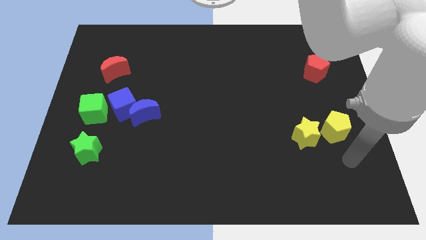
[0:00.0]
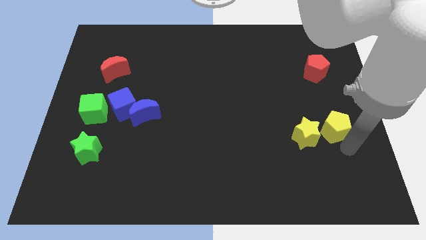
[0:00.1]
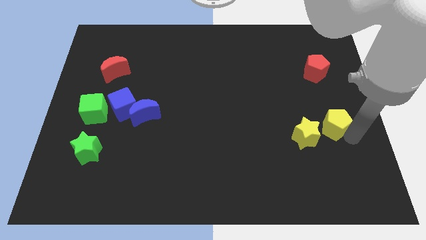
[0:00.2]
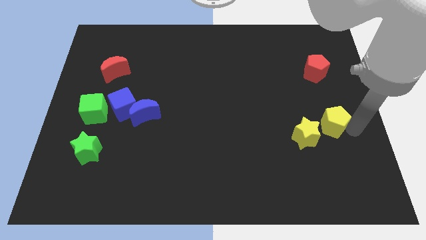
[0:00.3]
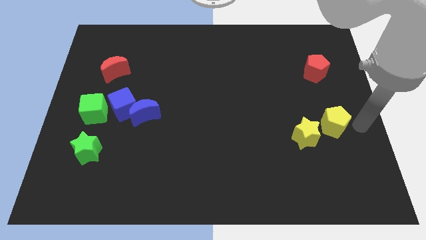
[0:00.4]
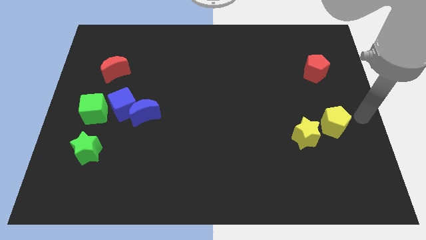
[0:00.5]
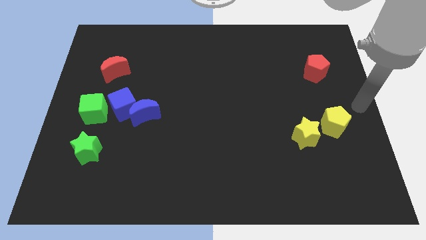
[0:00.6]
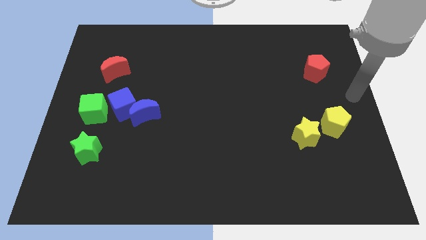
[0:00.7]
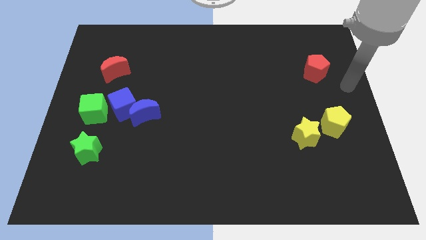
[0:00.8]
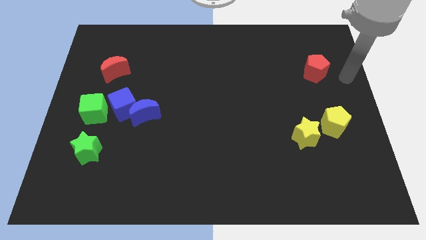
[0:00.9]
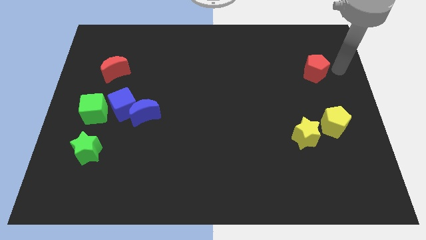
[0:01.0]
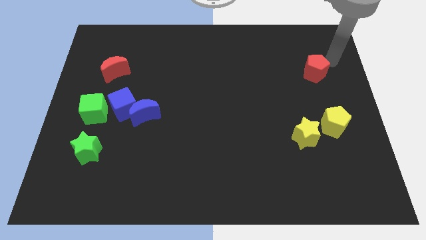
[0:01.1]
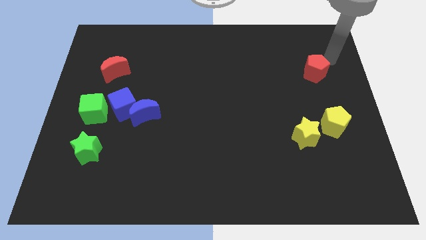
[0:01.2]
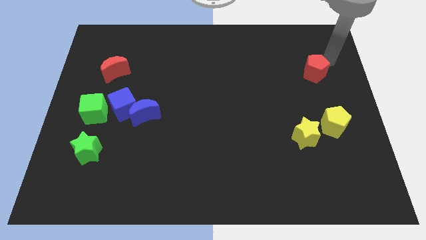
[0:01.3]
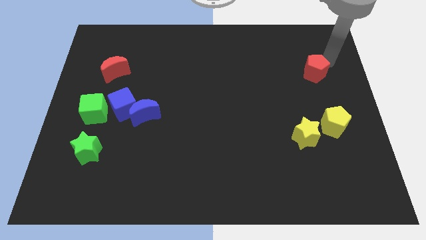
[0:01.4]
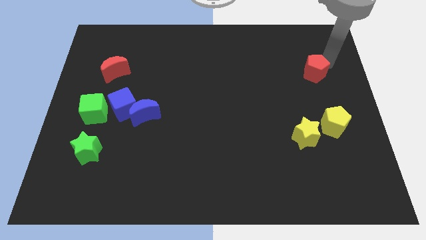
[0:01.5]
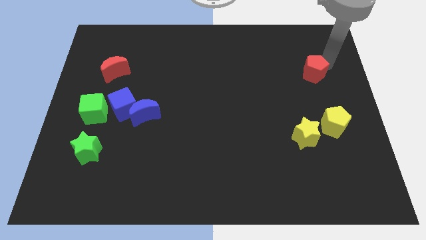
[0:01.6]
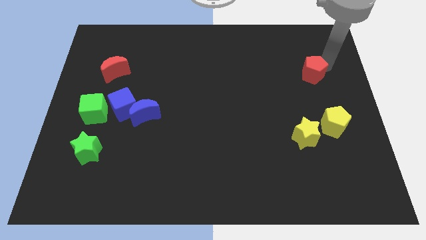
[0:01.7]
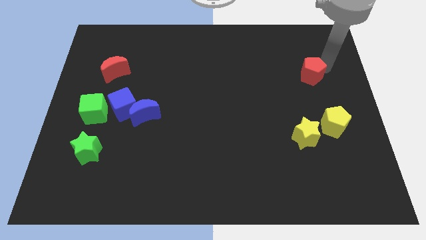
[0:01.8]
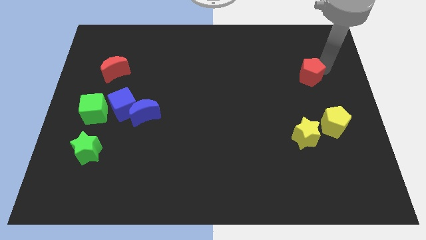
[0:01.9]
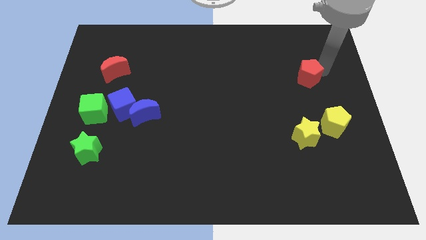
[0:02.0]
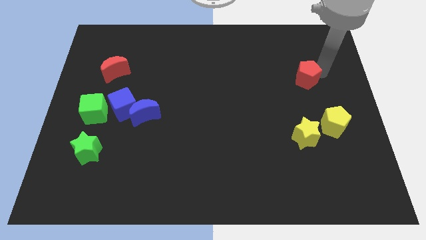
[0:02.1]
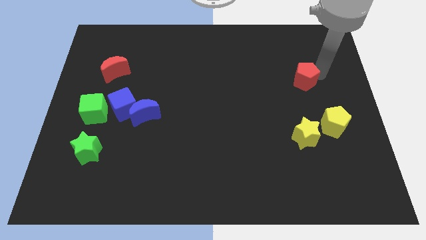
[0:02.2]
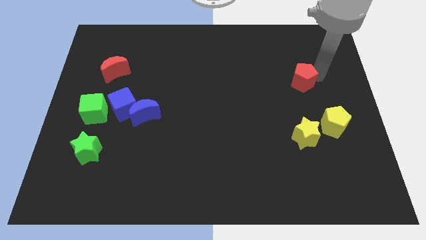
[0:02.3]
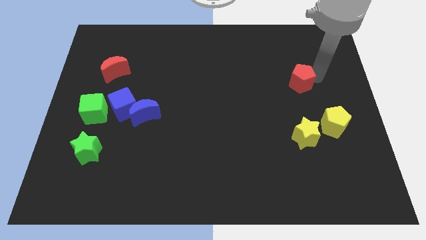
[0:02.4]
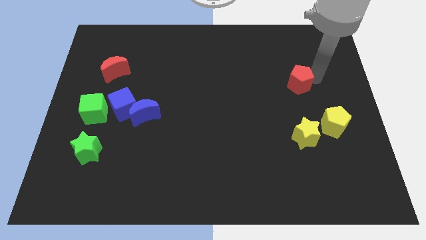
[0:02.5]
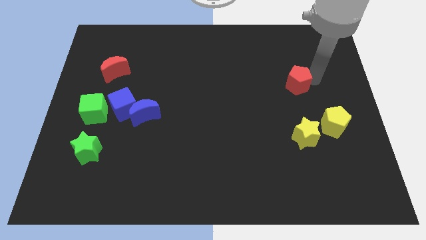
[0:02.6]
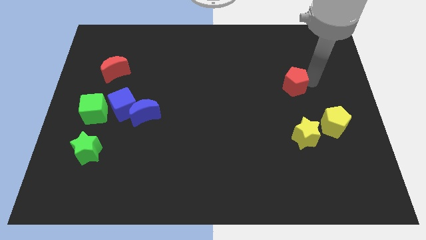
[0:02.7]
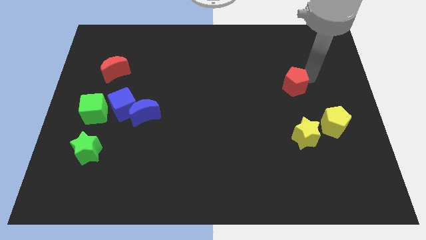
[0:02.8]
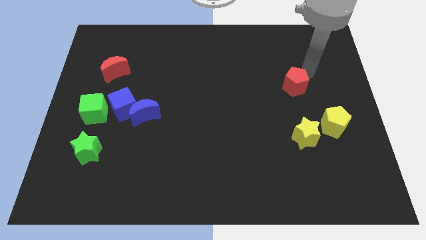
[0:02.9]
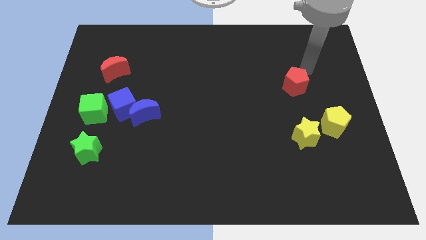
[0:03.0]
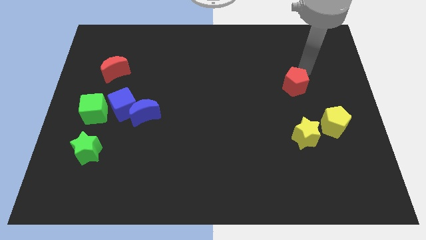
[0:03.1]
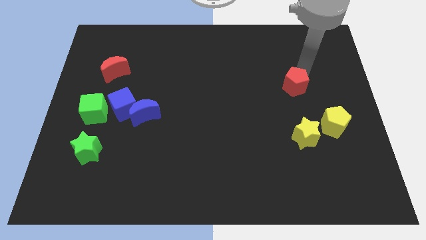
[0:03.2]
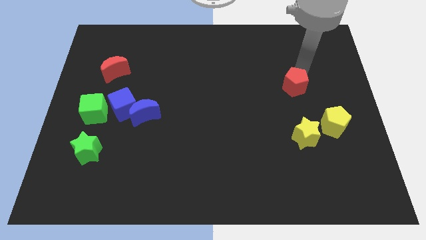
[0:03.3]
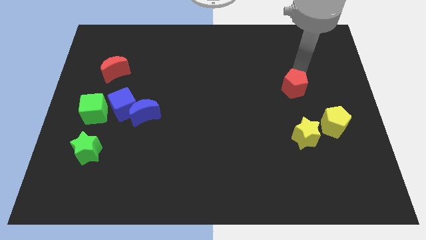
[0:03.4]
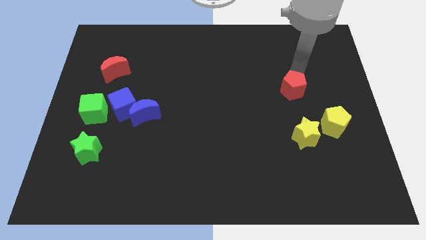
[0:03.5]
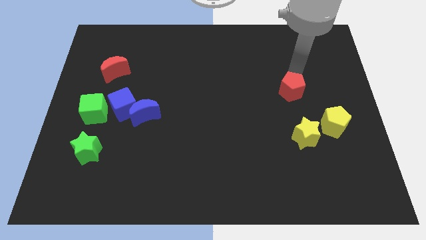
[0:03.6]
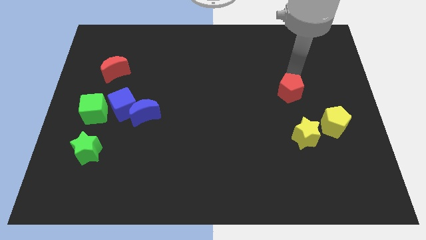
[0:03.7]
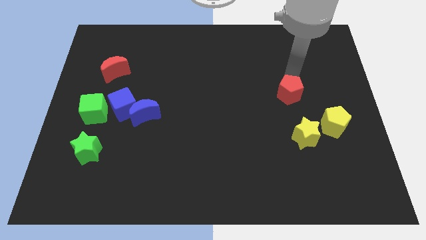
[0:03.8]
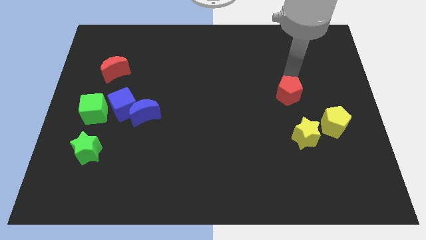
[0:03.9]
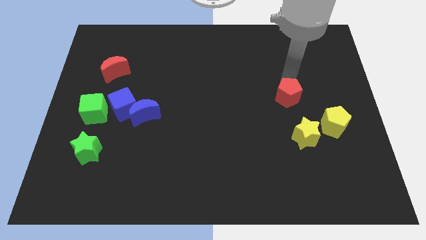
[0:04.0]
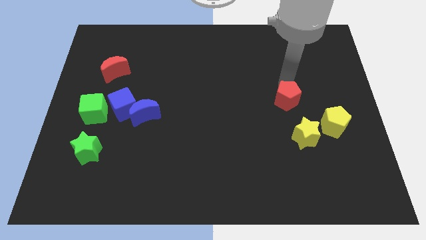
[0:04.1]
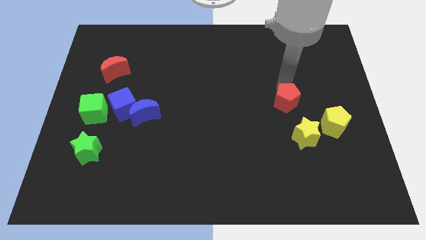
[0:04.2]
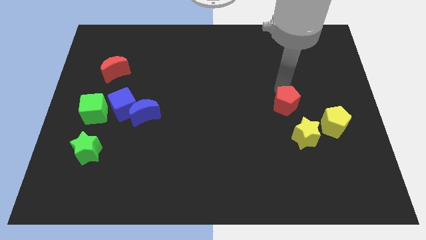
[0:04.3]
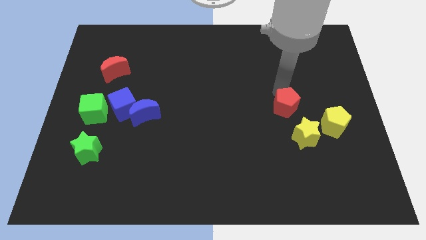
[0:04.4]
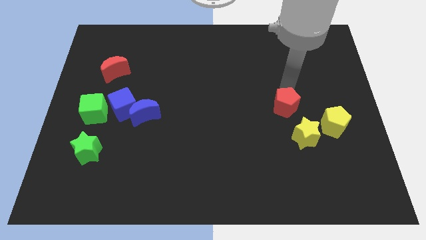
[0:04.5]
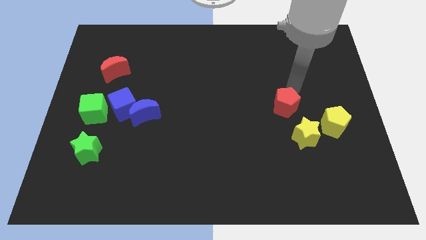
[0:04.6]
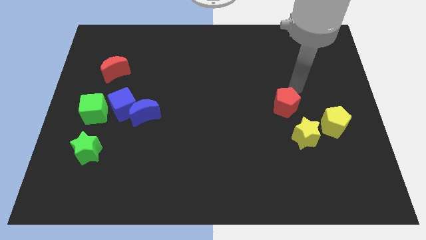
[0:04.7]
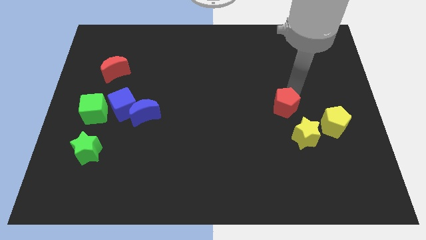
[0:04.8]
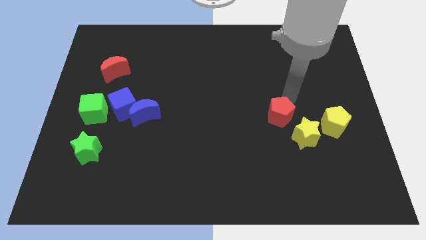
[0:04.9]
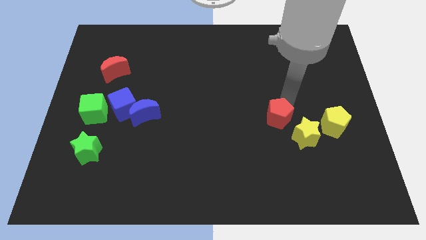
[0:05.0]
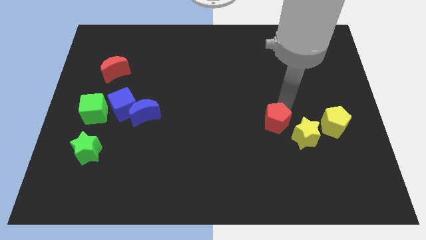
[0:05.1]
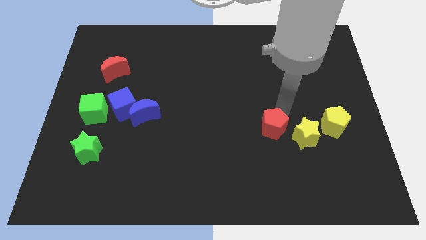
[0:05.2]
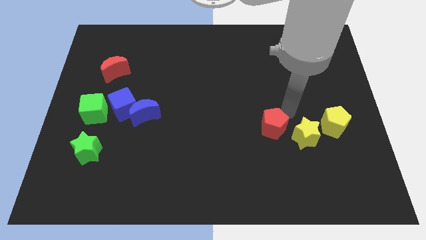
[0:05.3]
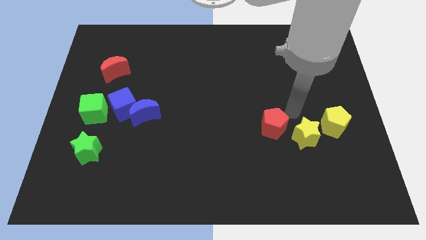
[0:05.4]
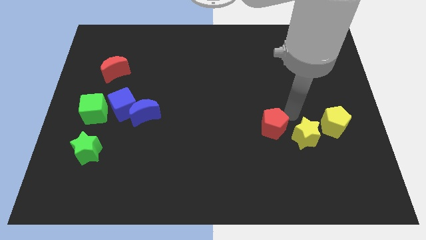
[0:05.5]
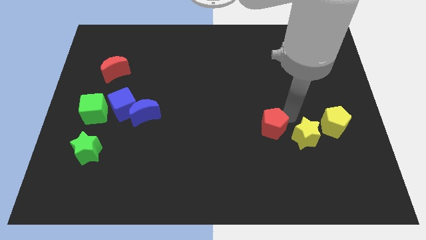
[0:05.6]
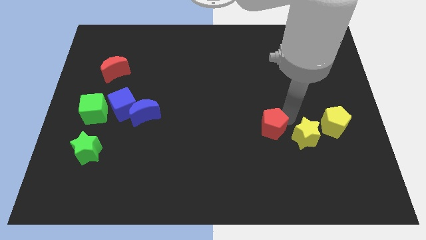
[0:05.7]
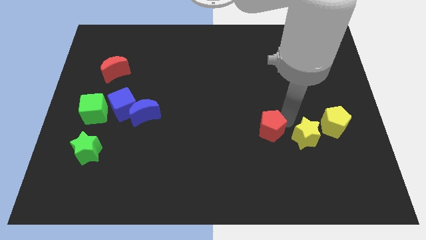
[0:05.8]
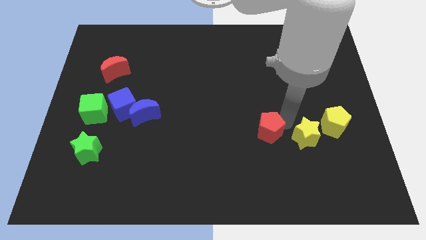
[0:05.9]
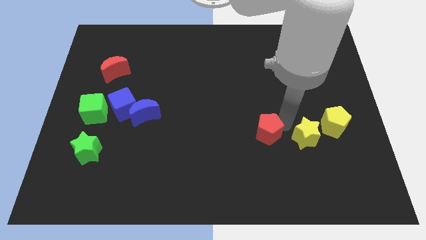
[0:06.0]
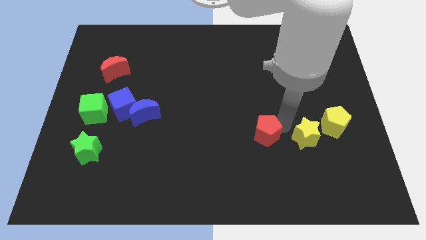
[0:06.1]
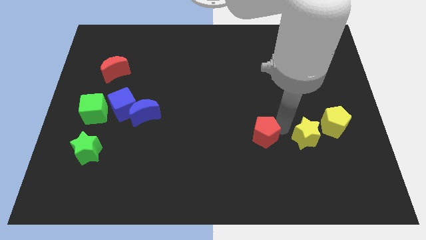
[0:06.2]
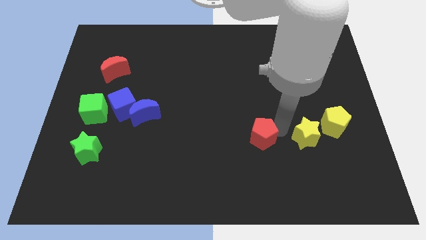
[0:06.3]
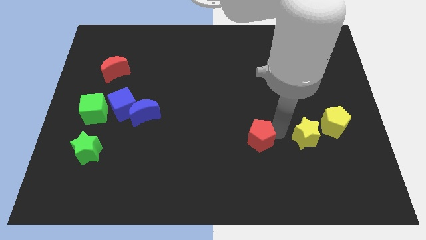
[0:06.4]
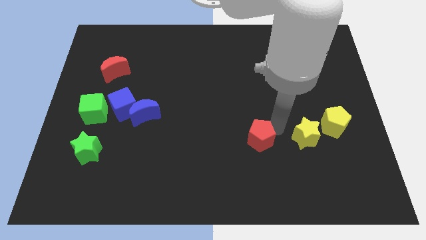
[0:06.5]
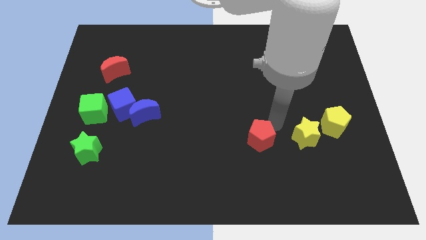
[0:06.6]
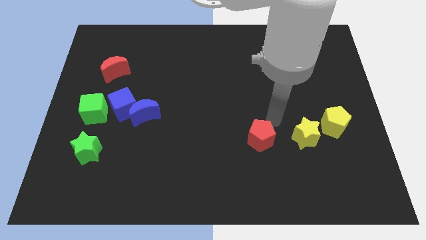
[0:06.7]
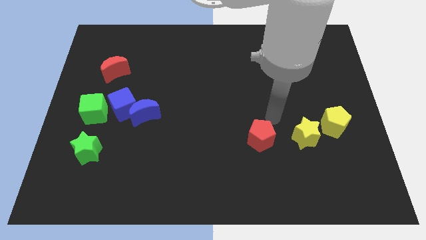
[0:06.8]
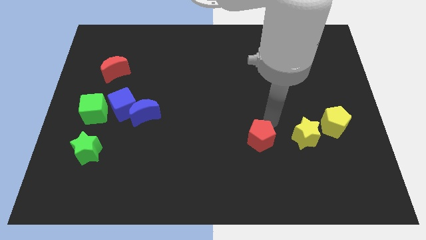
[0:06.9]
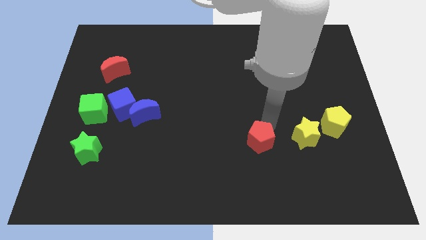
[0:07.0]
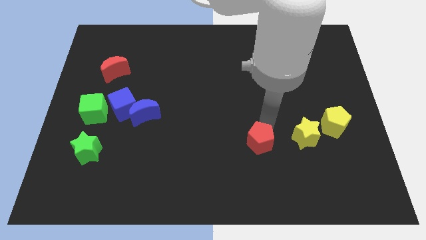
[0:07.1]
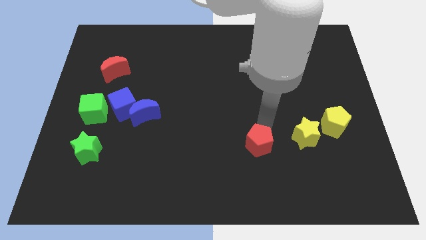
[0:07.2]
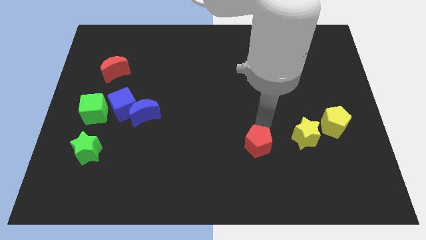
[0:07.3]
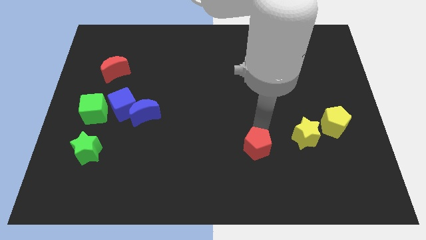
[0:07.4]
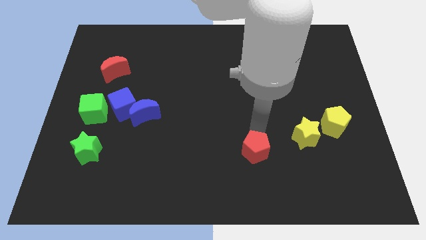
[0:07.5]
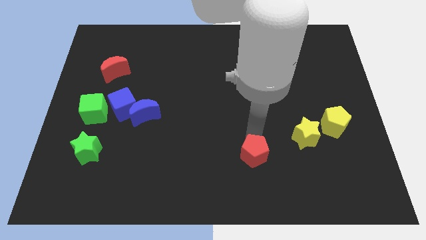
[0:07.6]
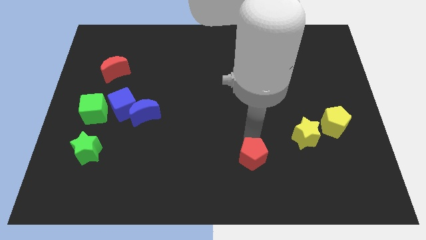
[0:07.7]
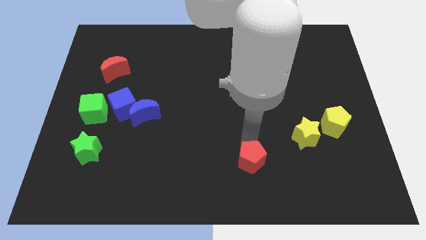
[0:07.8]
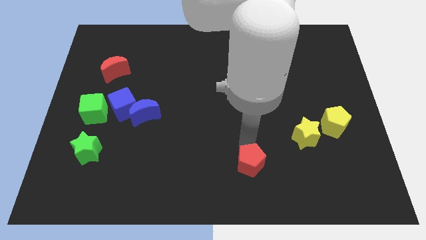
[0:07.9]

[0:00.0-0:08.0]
push the red pentagon to the bottom side
